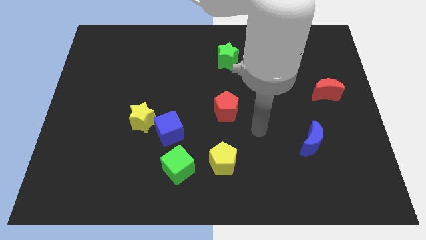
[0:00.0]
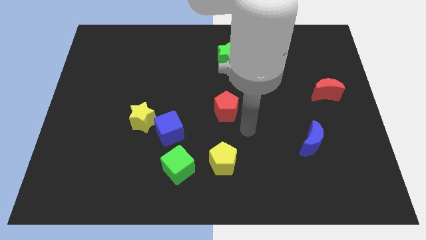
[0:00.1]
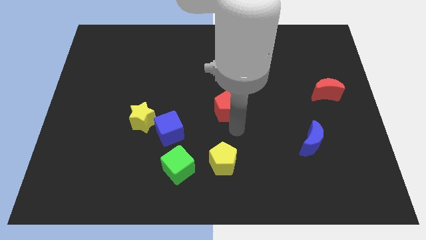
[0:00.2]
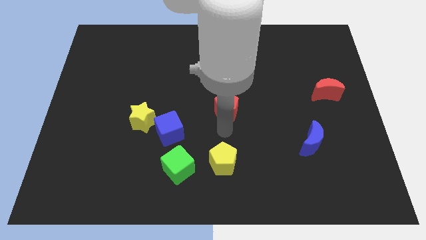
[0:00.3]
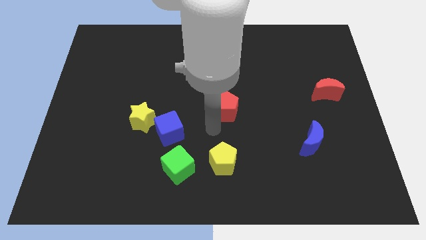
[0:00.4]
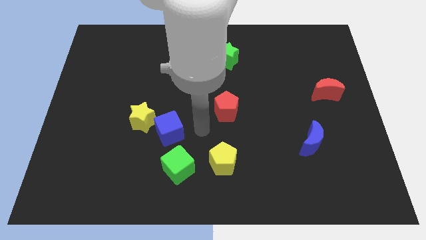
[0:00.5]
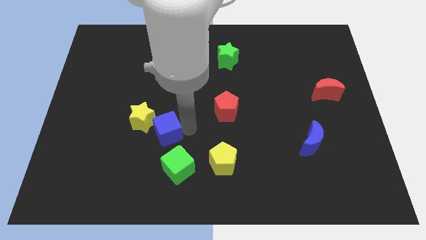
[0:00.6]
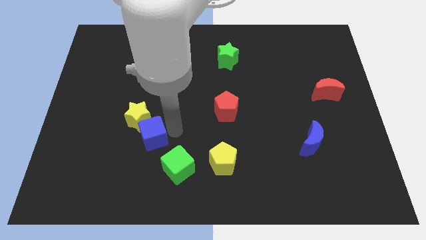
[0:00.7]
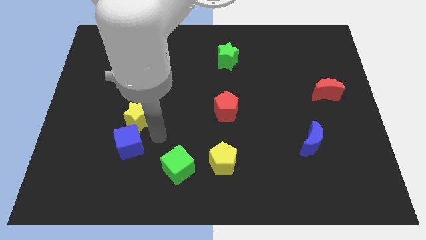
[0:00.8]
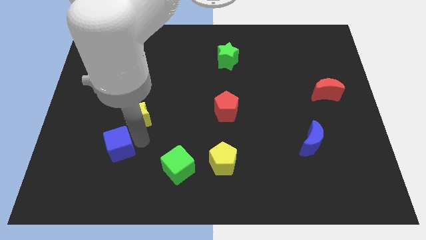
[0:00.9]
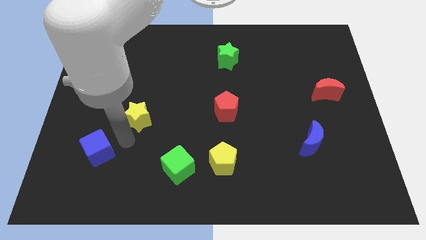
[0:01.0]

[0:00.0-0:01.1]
pull the yellow star apart from the blue cube

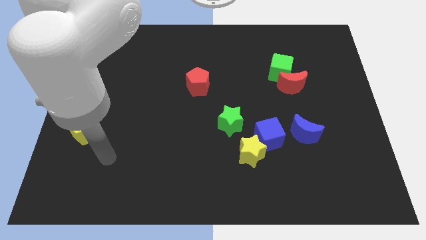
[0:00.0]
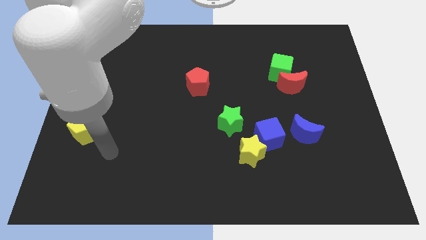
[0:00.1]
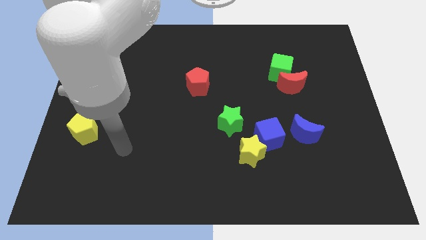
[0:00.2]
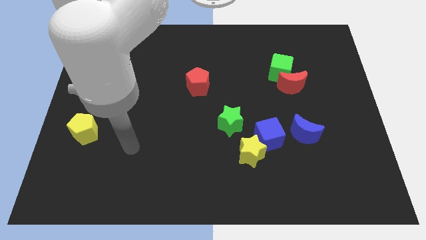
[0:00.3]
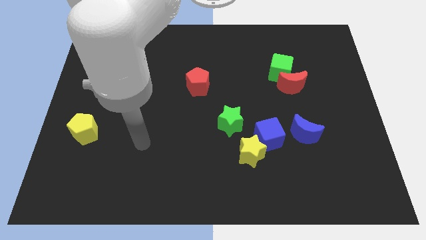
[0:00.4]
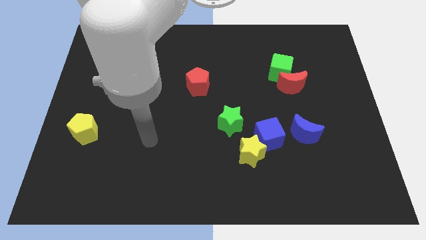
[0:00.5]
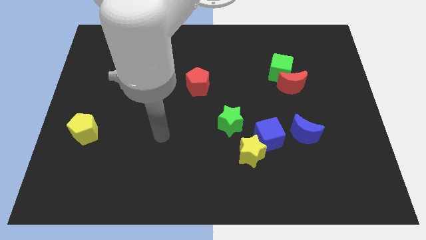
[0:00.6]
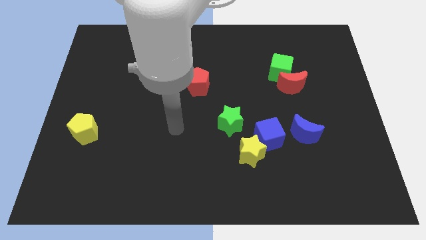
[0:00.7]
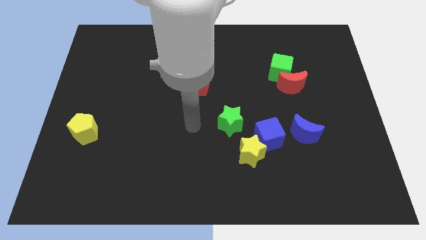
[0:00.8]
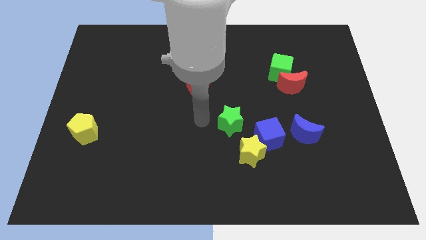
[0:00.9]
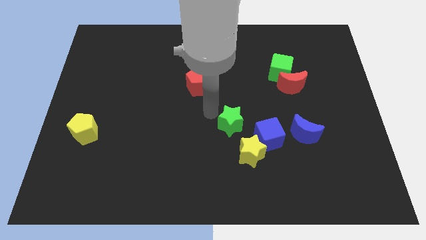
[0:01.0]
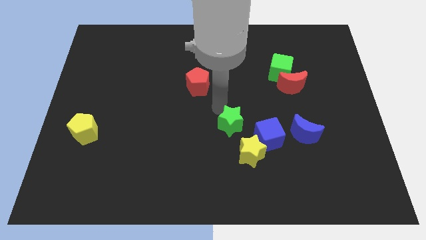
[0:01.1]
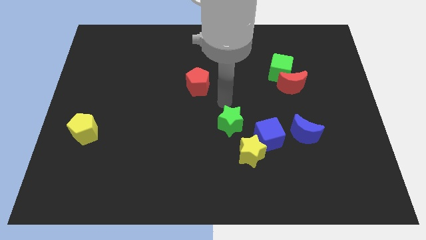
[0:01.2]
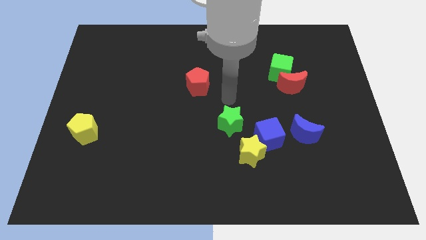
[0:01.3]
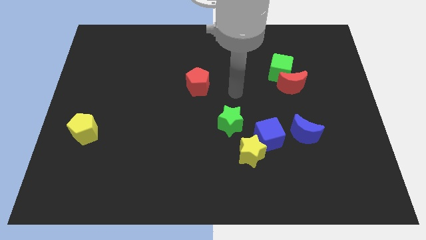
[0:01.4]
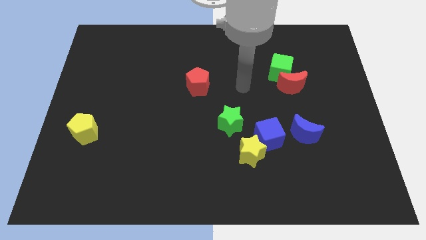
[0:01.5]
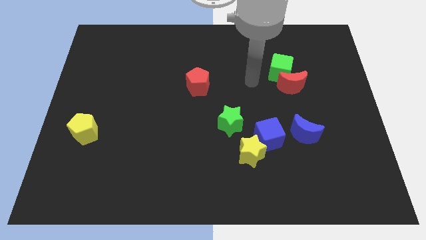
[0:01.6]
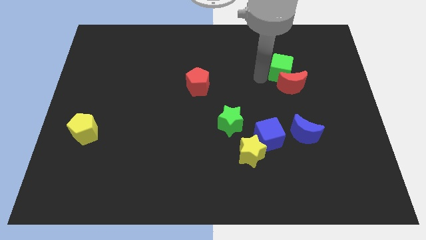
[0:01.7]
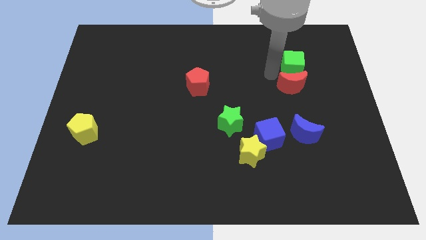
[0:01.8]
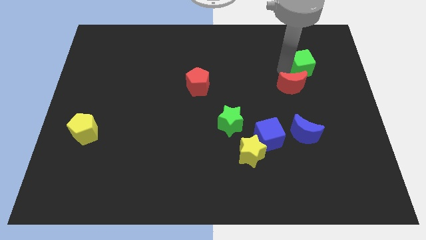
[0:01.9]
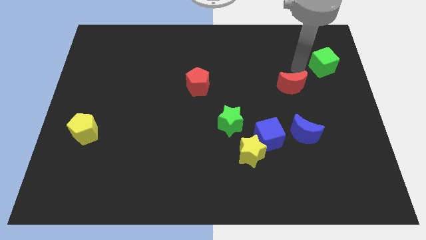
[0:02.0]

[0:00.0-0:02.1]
separate the red moon from the green cube

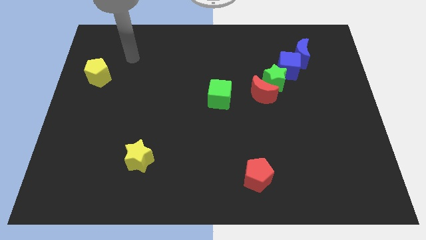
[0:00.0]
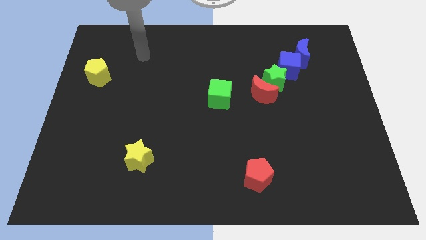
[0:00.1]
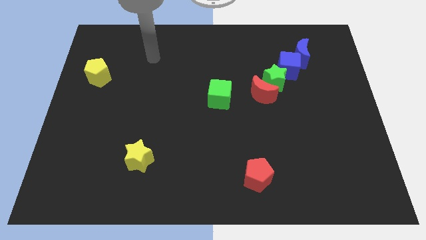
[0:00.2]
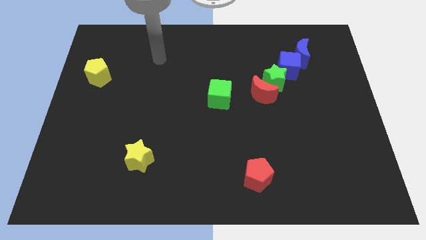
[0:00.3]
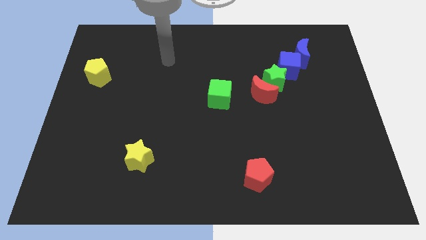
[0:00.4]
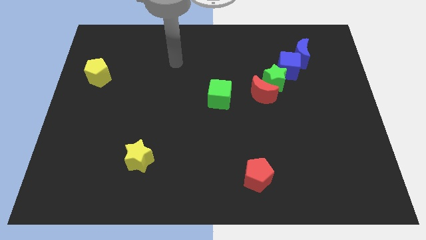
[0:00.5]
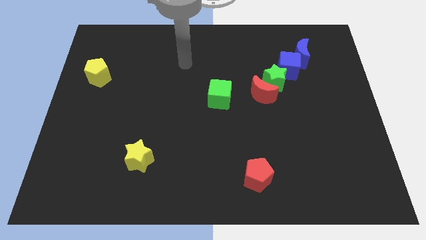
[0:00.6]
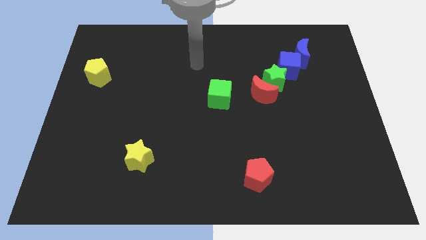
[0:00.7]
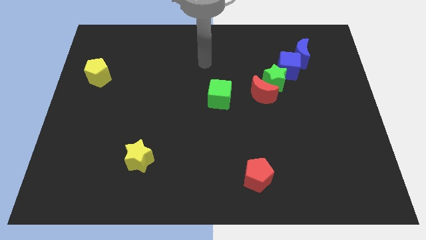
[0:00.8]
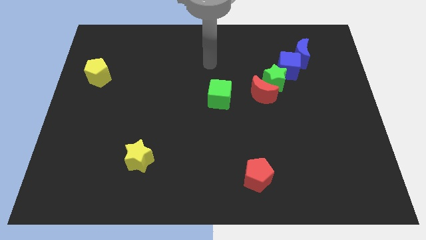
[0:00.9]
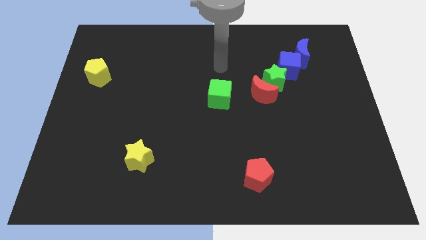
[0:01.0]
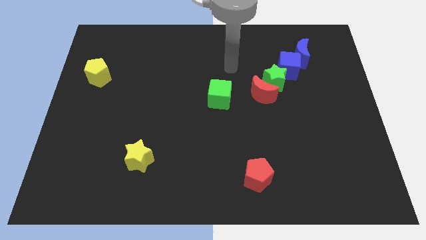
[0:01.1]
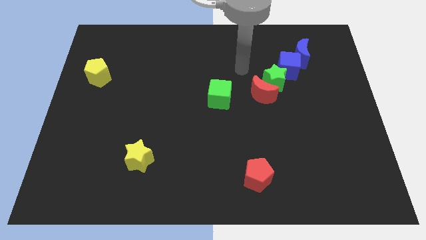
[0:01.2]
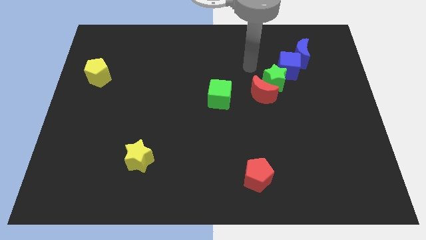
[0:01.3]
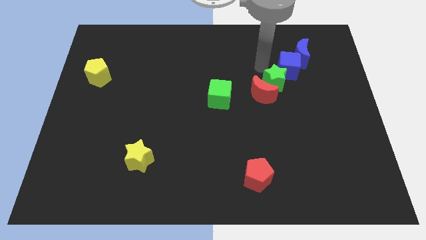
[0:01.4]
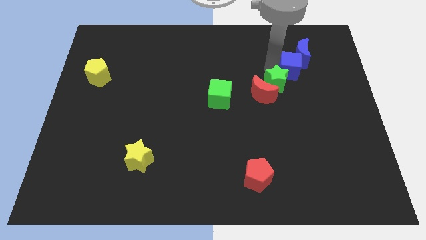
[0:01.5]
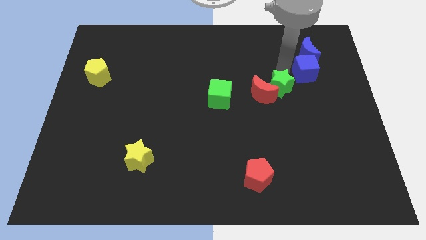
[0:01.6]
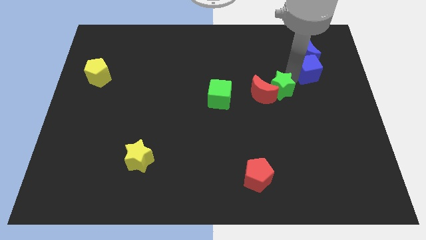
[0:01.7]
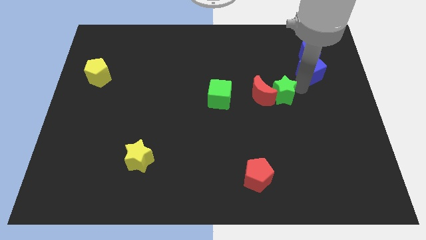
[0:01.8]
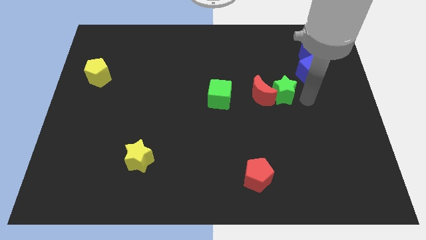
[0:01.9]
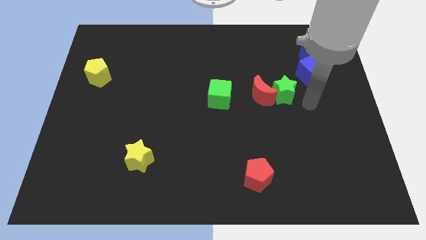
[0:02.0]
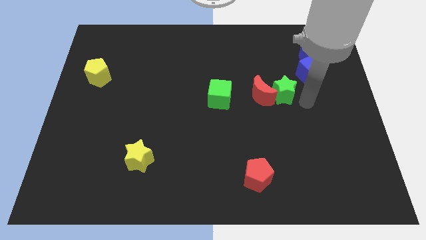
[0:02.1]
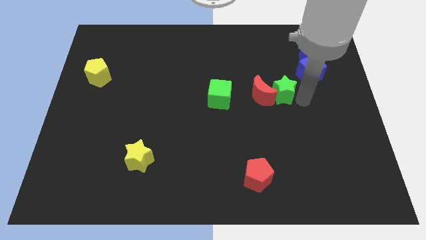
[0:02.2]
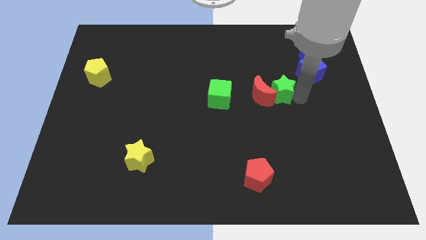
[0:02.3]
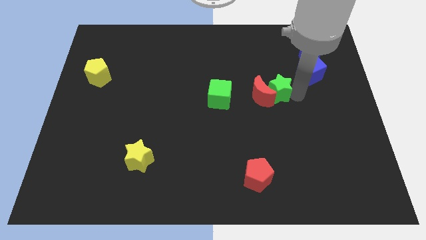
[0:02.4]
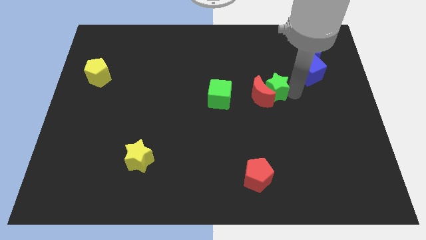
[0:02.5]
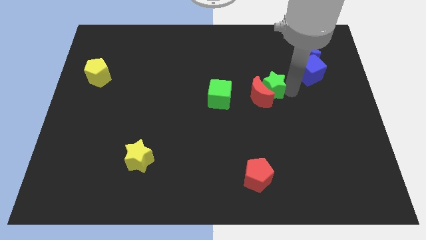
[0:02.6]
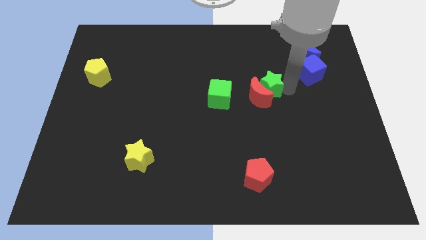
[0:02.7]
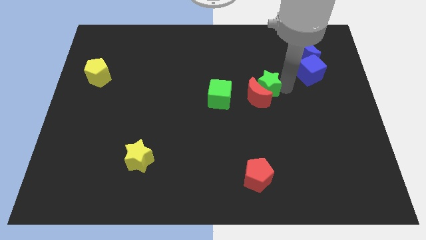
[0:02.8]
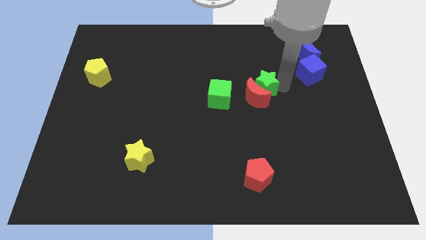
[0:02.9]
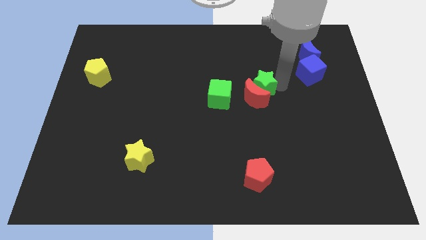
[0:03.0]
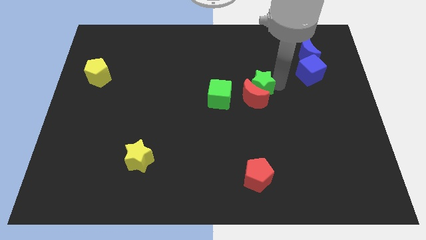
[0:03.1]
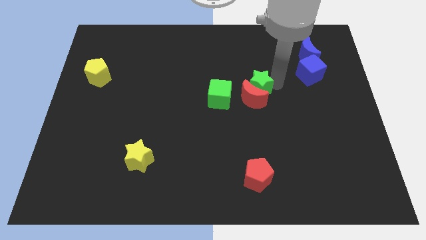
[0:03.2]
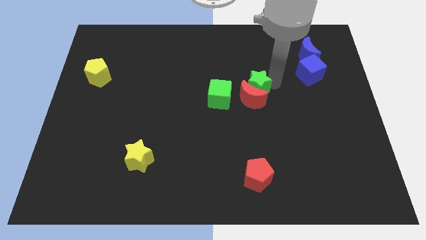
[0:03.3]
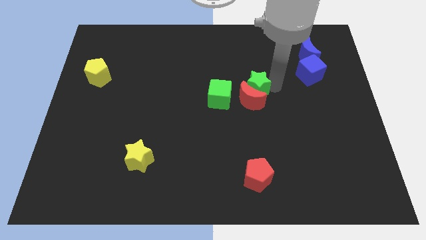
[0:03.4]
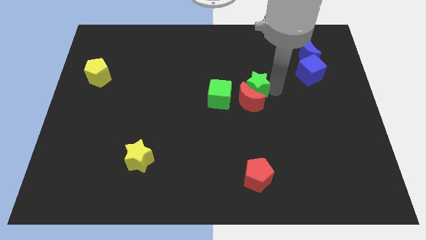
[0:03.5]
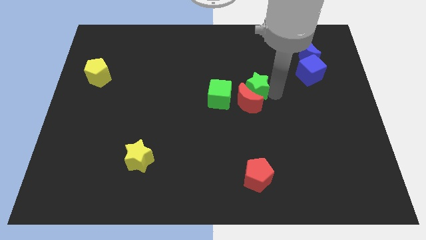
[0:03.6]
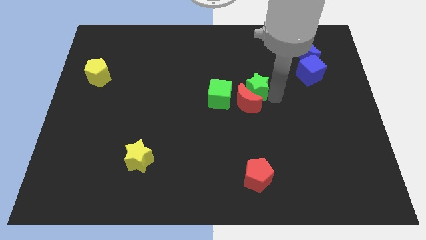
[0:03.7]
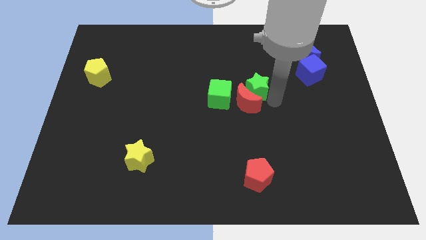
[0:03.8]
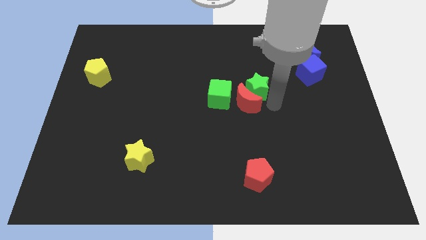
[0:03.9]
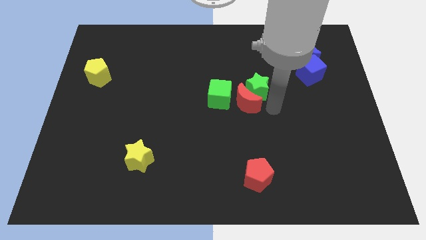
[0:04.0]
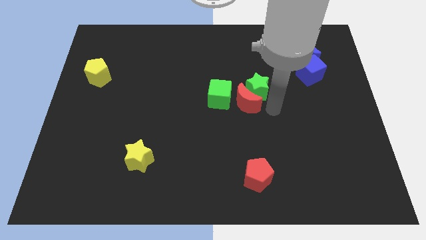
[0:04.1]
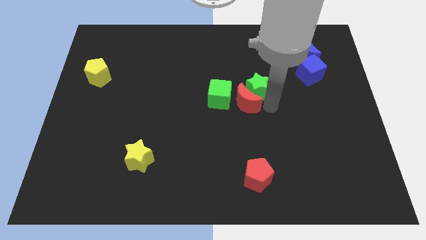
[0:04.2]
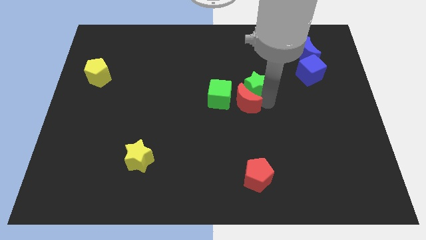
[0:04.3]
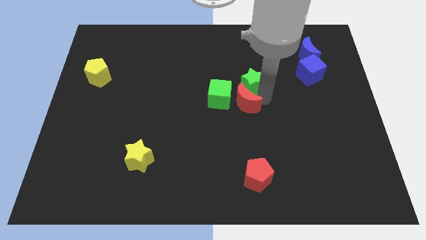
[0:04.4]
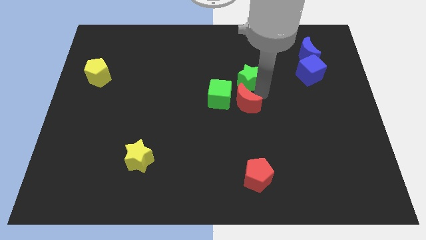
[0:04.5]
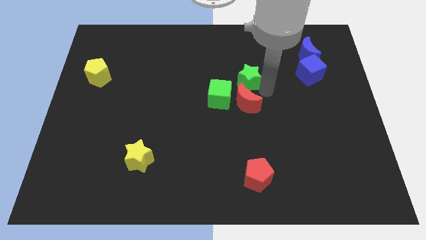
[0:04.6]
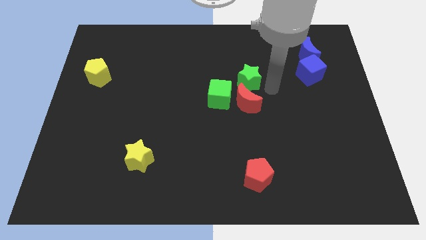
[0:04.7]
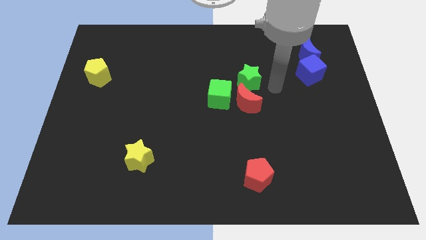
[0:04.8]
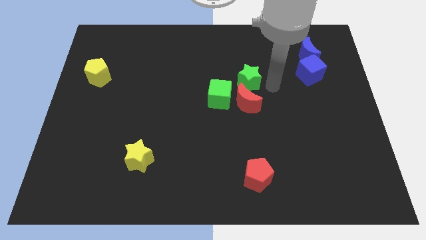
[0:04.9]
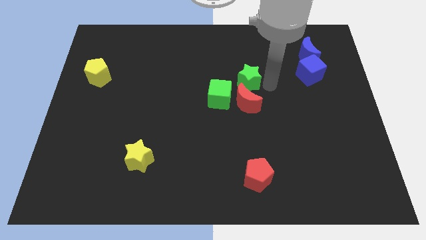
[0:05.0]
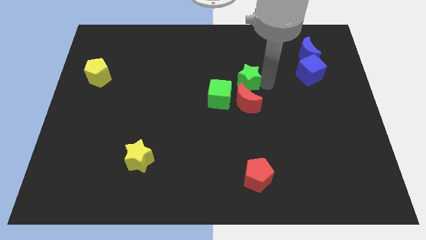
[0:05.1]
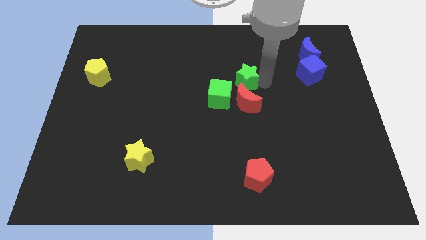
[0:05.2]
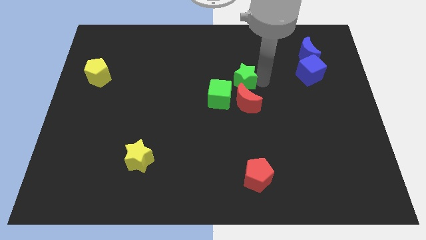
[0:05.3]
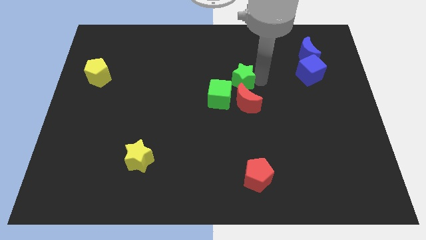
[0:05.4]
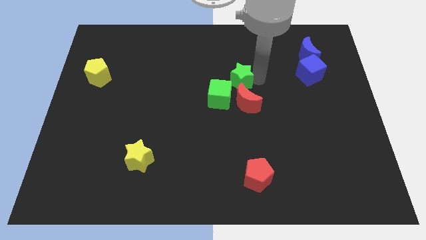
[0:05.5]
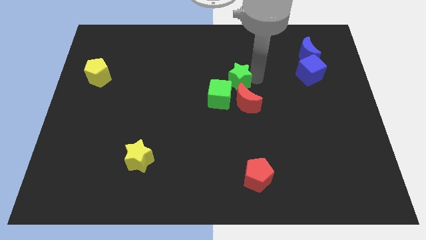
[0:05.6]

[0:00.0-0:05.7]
pull the green star apart from the red moon and blue cube

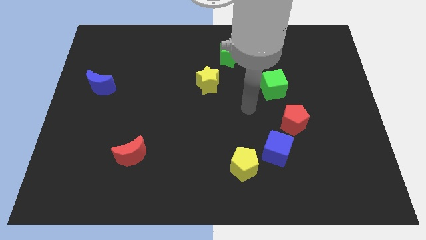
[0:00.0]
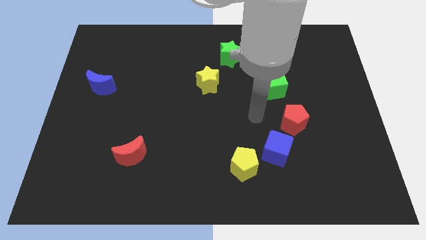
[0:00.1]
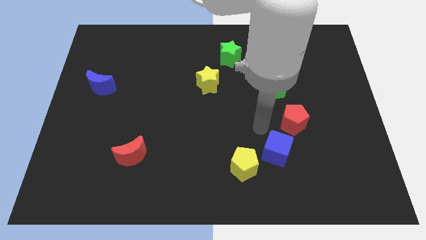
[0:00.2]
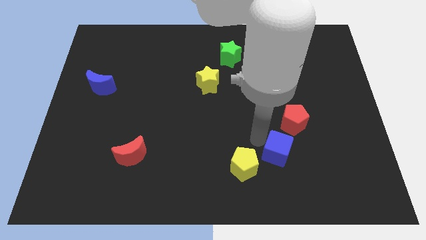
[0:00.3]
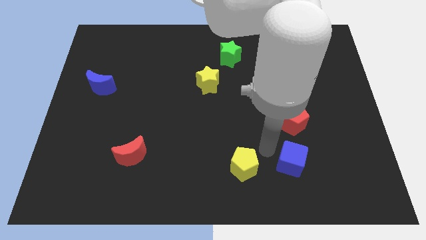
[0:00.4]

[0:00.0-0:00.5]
pull the yellow pentagon apart from the blue cube
